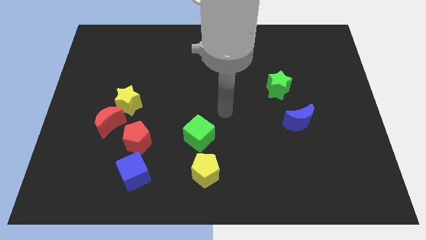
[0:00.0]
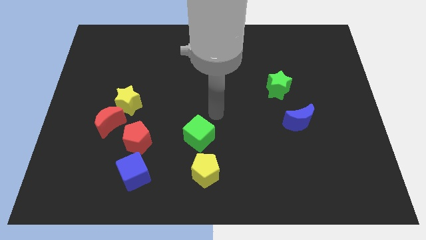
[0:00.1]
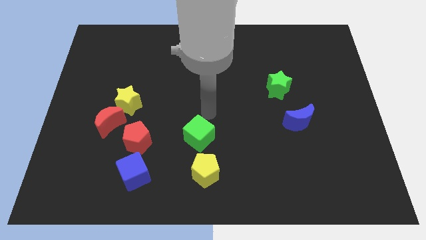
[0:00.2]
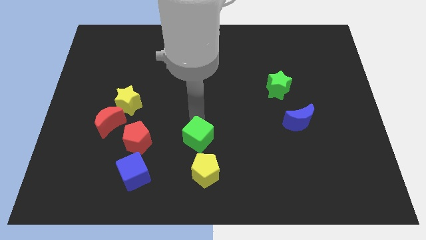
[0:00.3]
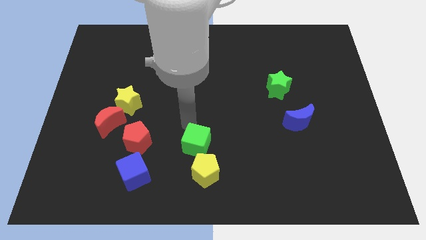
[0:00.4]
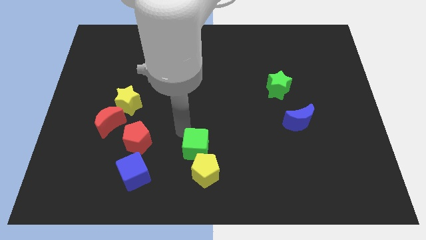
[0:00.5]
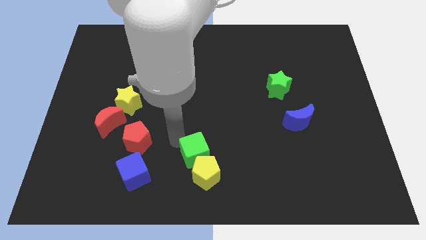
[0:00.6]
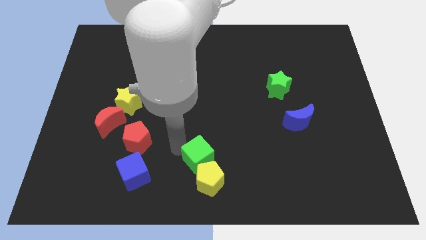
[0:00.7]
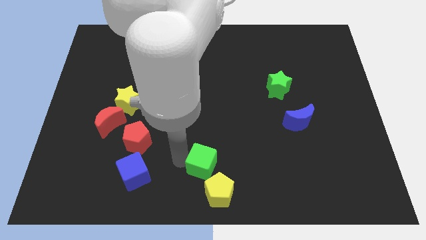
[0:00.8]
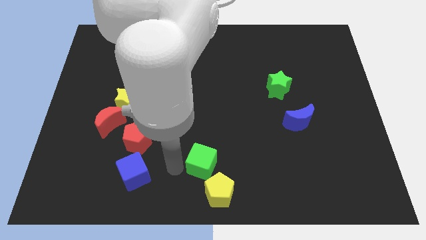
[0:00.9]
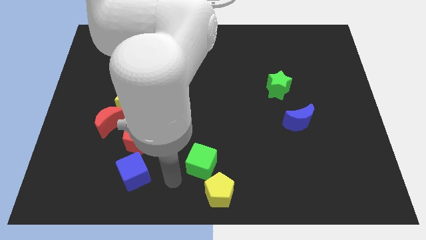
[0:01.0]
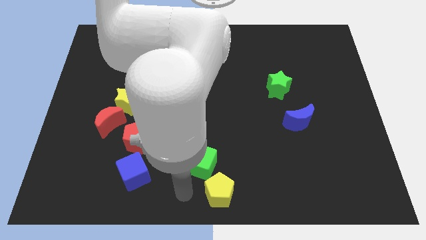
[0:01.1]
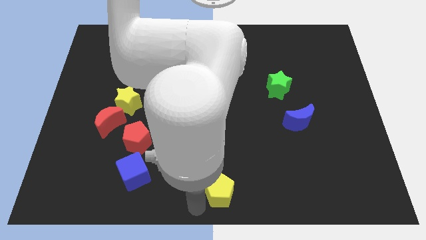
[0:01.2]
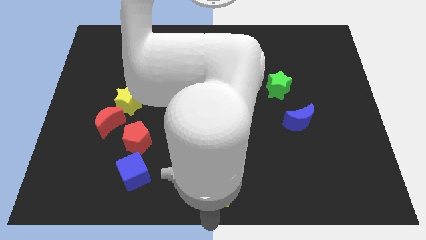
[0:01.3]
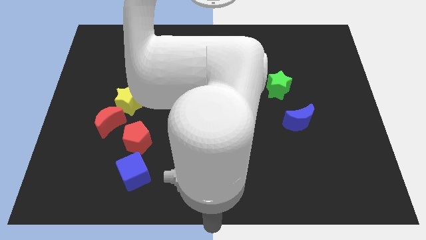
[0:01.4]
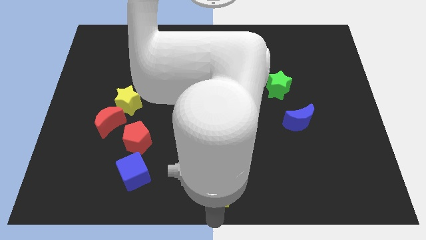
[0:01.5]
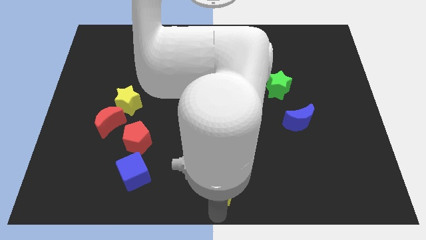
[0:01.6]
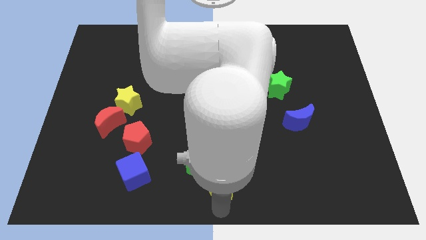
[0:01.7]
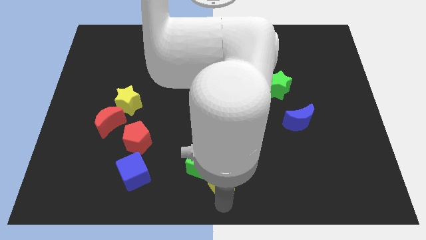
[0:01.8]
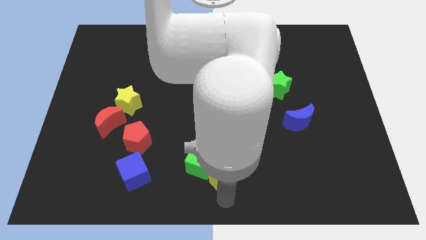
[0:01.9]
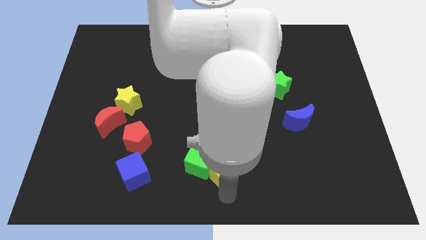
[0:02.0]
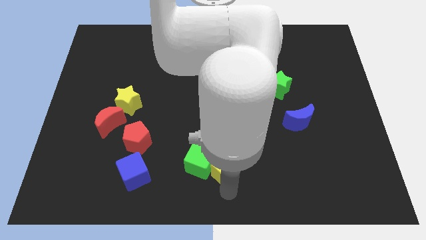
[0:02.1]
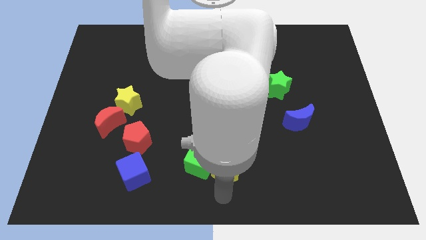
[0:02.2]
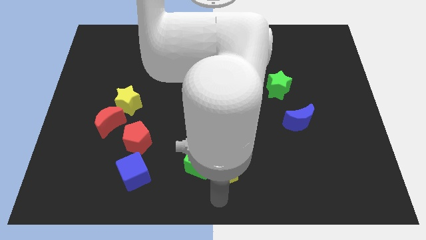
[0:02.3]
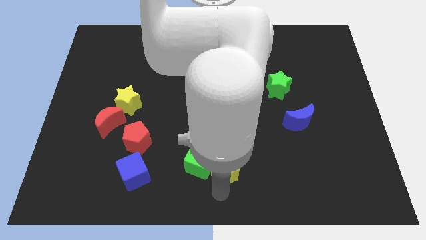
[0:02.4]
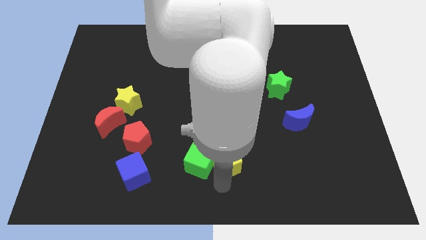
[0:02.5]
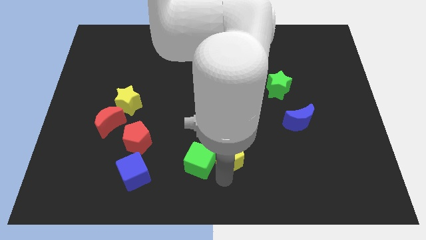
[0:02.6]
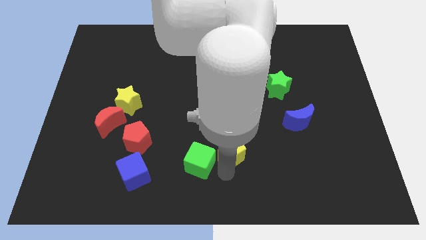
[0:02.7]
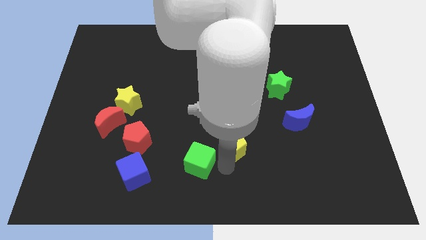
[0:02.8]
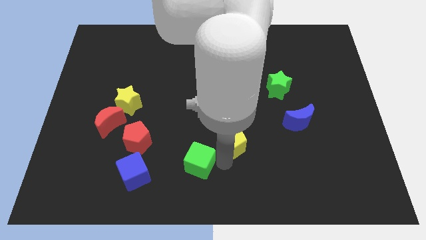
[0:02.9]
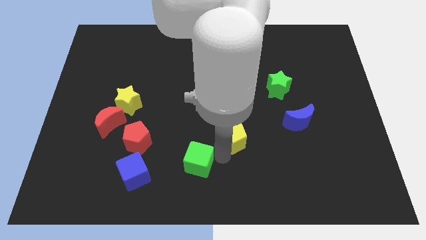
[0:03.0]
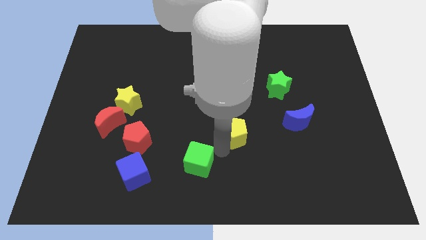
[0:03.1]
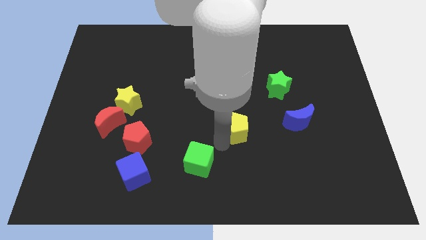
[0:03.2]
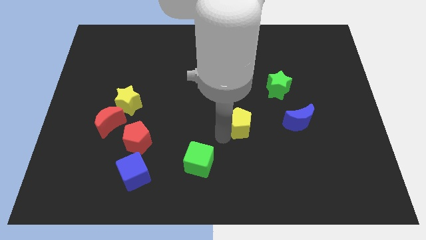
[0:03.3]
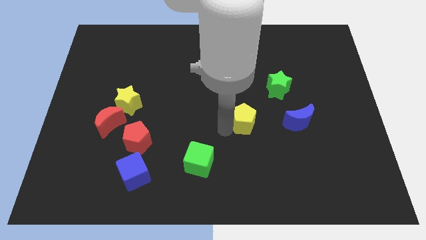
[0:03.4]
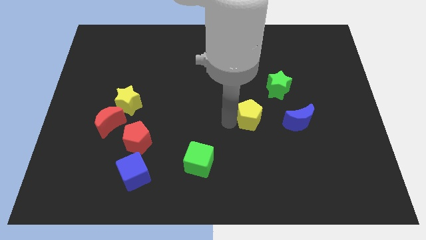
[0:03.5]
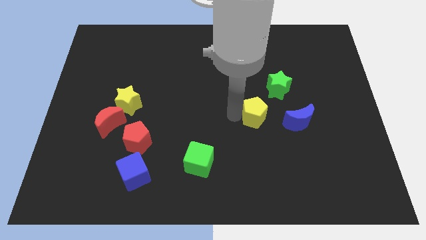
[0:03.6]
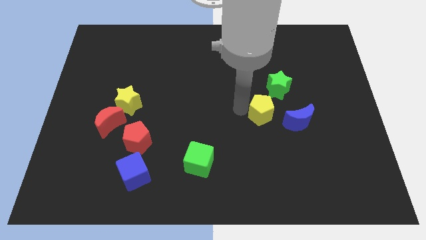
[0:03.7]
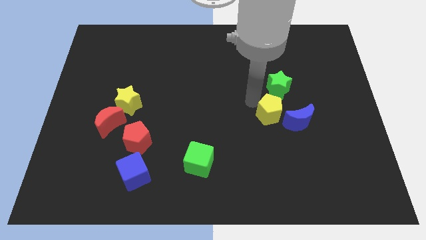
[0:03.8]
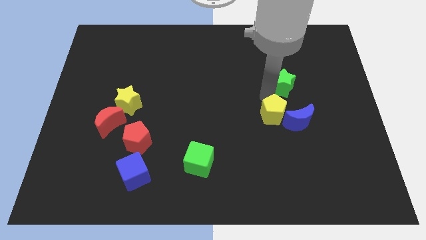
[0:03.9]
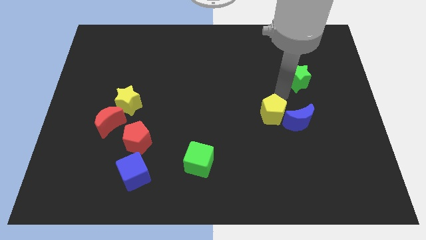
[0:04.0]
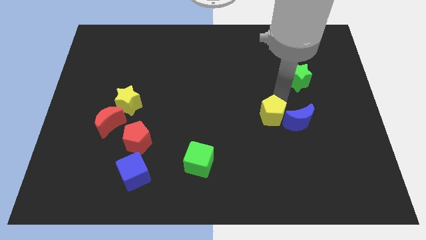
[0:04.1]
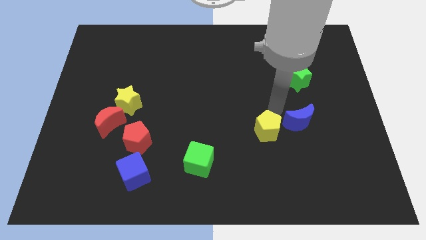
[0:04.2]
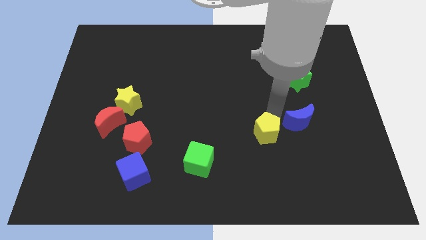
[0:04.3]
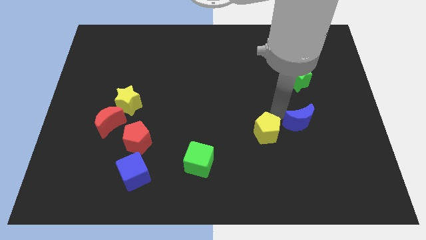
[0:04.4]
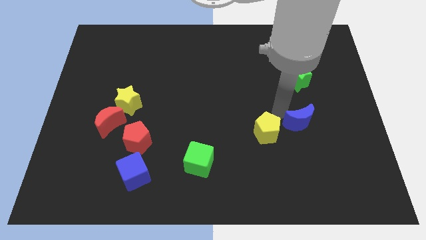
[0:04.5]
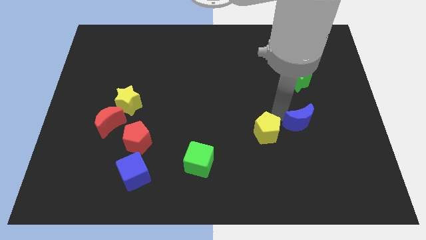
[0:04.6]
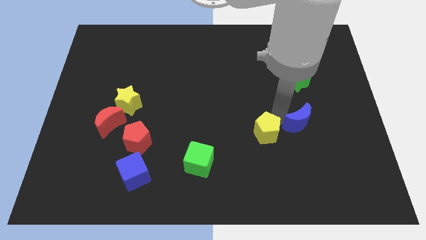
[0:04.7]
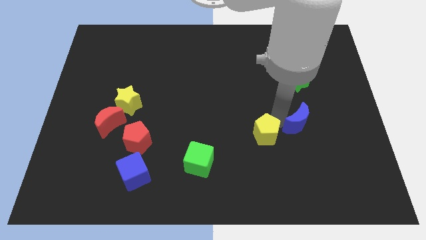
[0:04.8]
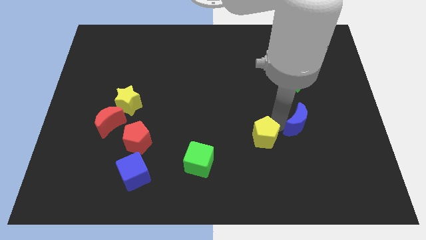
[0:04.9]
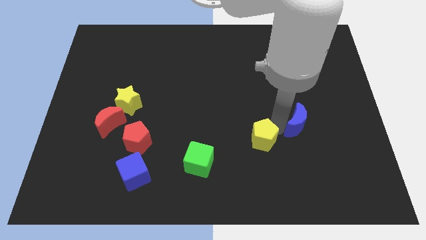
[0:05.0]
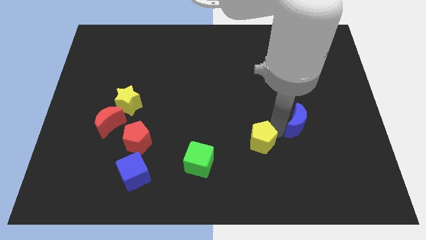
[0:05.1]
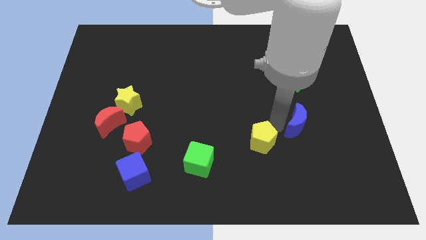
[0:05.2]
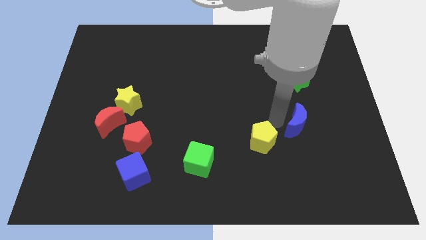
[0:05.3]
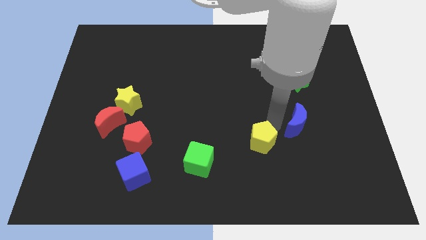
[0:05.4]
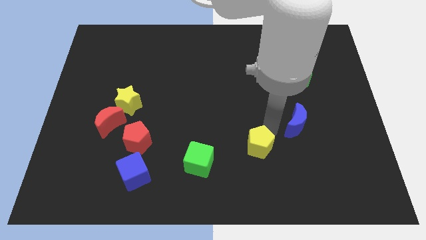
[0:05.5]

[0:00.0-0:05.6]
move the yellow pentagon to the right of the green cube

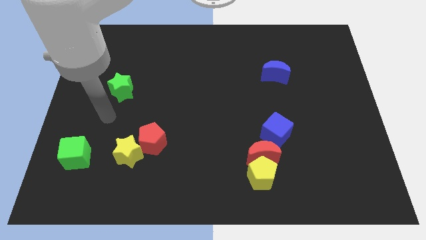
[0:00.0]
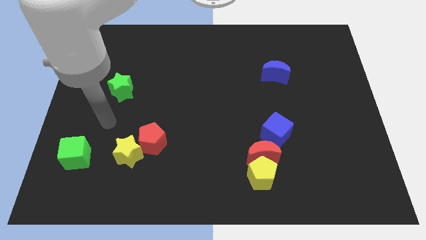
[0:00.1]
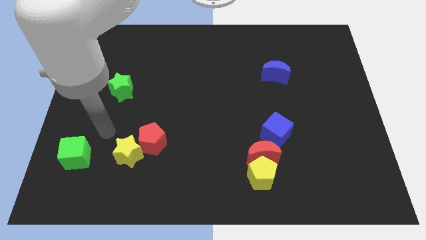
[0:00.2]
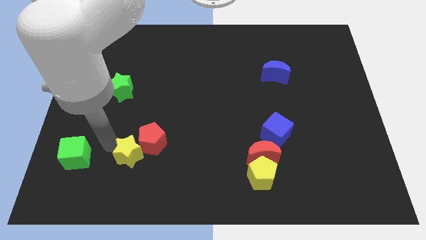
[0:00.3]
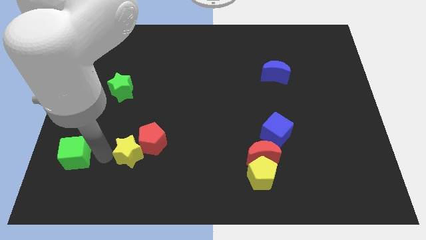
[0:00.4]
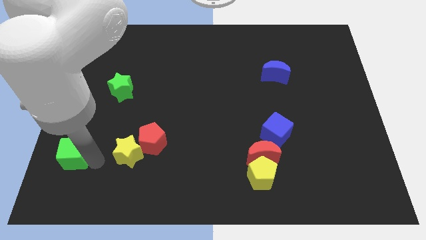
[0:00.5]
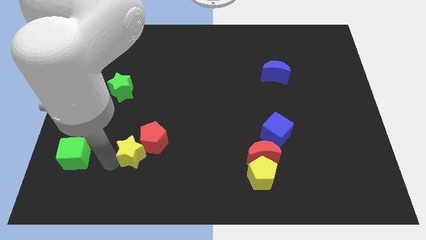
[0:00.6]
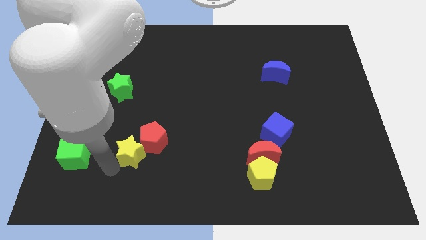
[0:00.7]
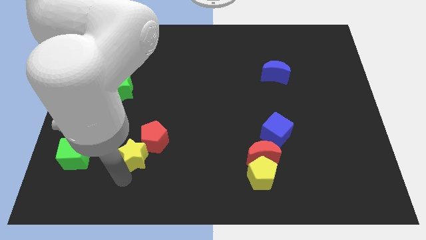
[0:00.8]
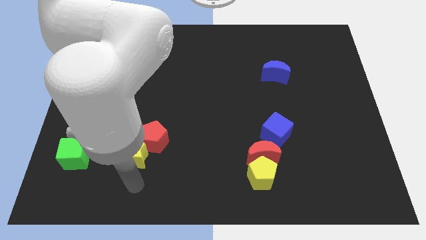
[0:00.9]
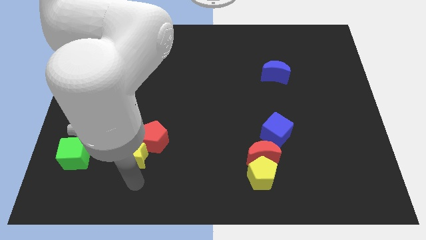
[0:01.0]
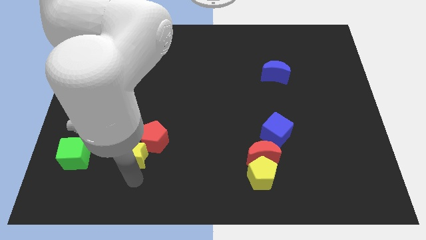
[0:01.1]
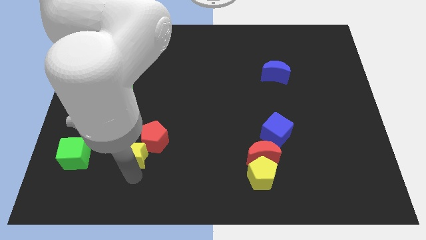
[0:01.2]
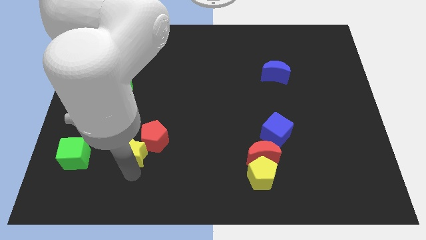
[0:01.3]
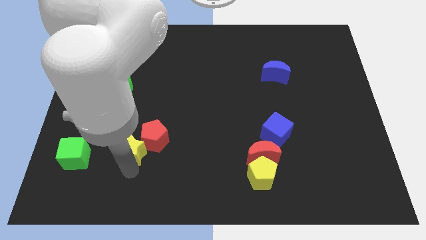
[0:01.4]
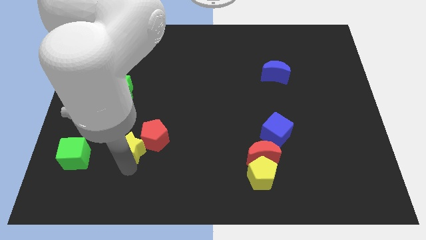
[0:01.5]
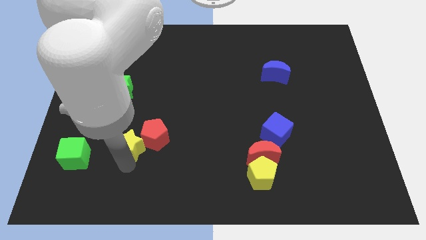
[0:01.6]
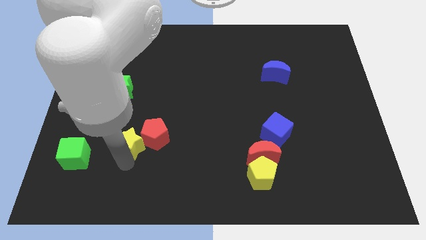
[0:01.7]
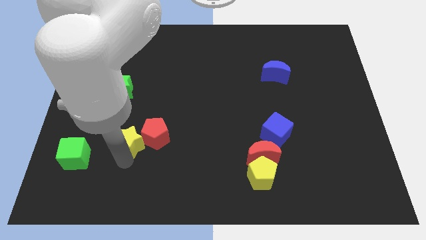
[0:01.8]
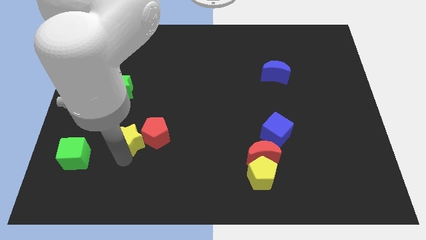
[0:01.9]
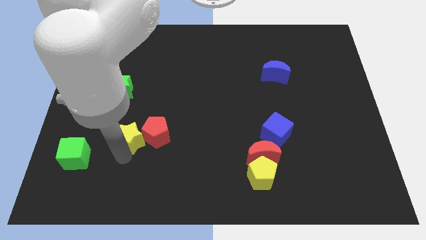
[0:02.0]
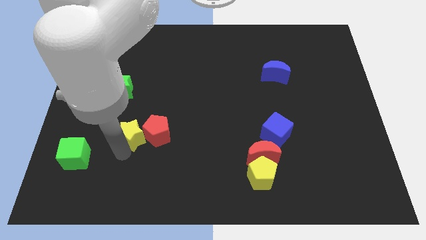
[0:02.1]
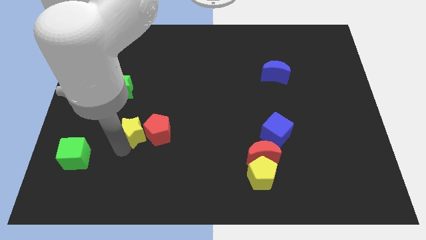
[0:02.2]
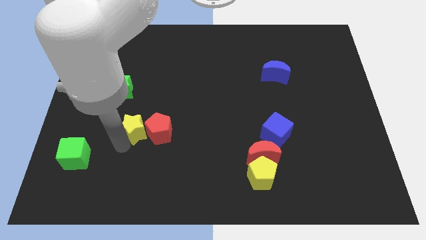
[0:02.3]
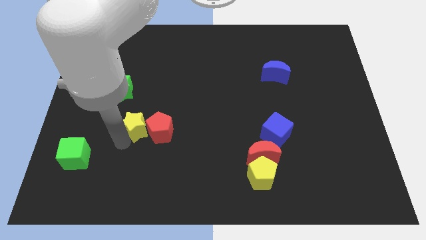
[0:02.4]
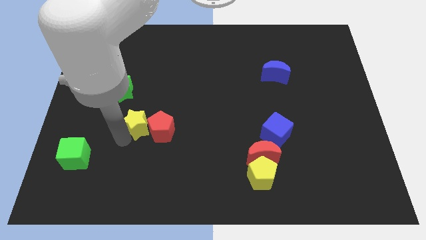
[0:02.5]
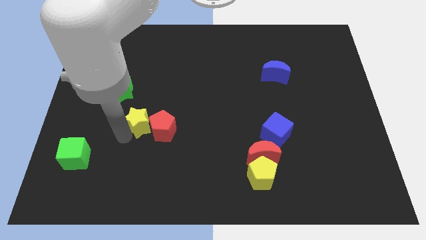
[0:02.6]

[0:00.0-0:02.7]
put the yellow star diagonally down and to the right of the green star
